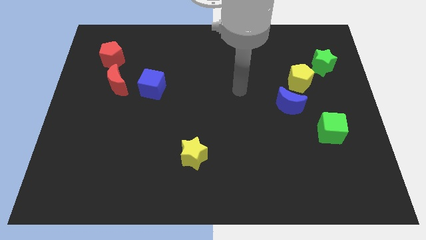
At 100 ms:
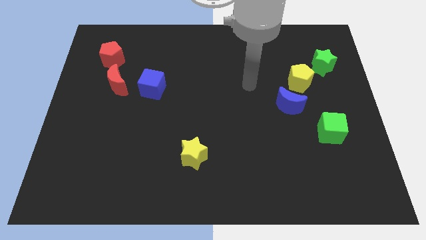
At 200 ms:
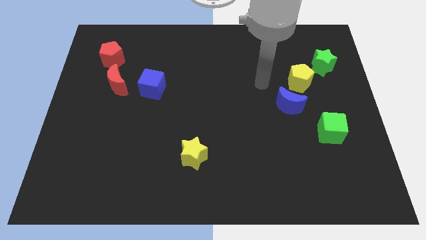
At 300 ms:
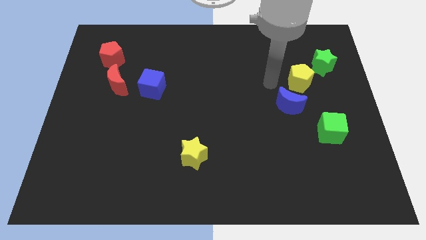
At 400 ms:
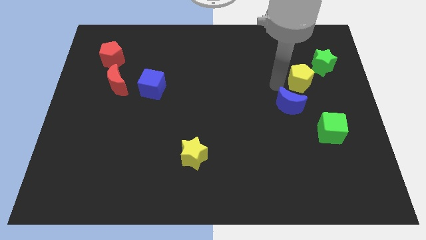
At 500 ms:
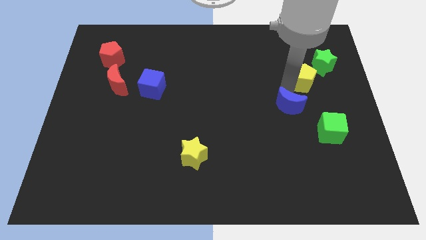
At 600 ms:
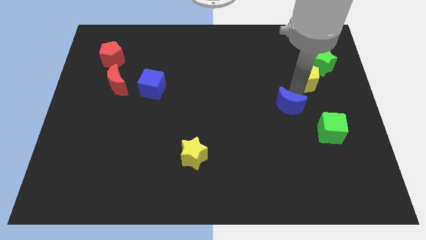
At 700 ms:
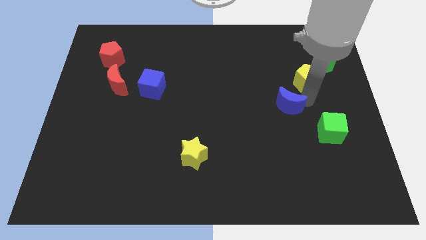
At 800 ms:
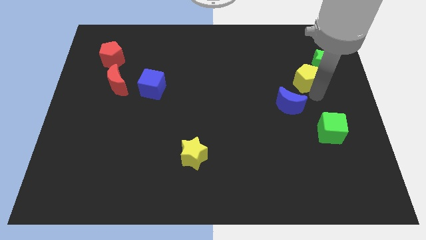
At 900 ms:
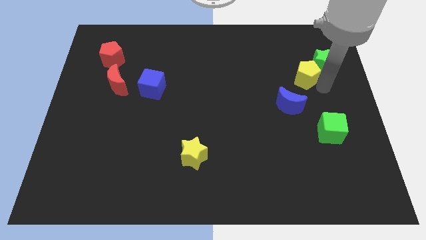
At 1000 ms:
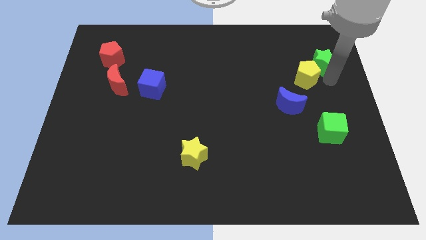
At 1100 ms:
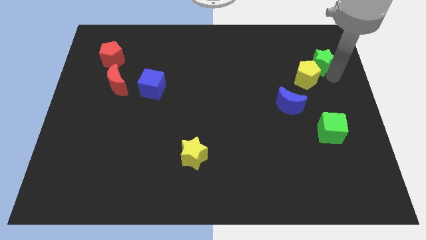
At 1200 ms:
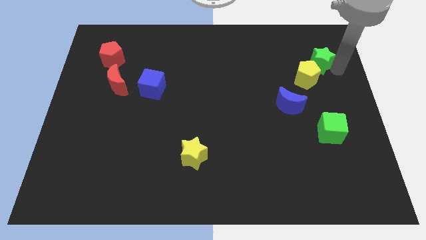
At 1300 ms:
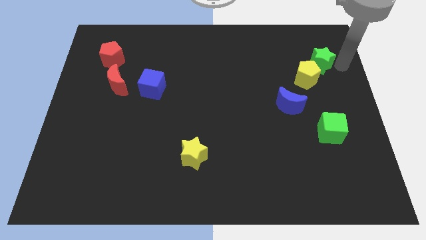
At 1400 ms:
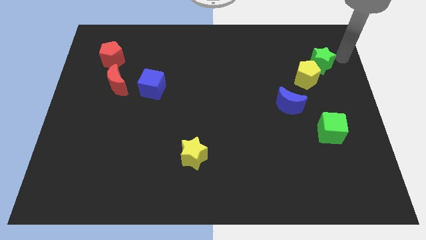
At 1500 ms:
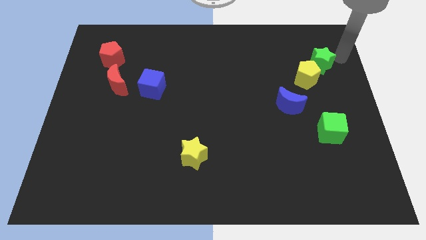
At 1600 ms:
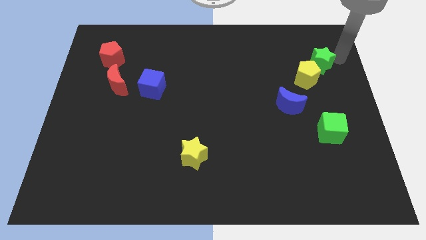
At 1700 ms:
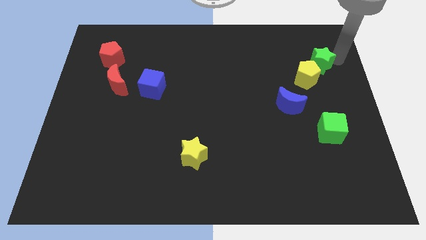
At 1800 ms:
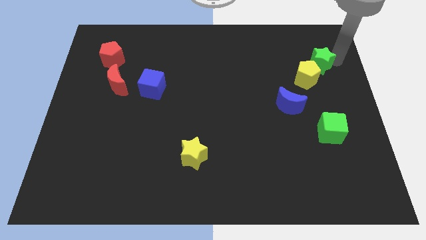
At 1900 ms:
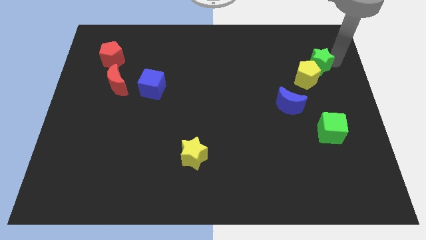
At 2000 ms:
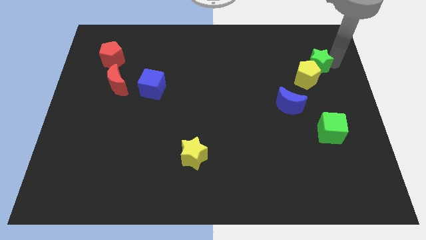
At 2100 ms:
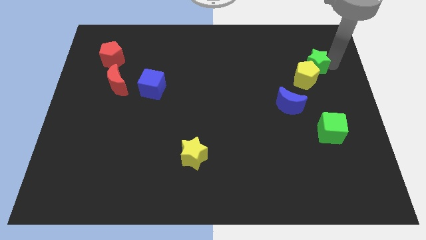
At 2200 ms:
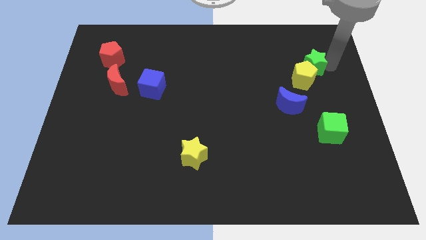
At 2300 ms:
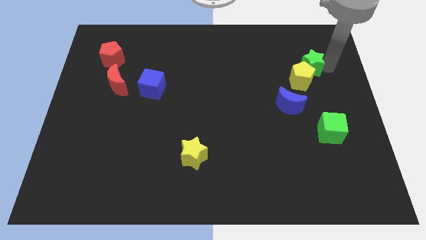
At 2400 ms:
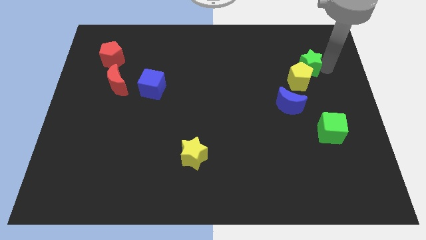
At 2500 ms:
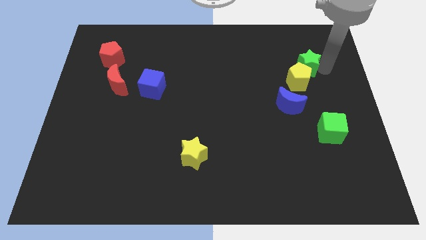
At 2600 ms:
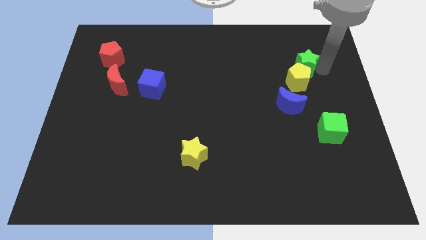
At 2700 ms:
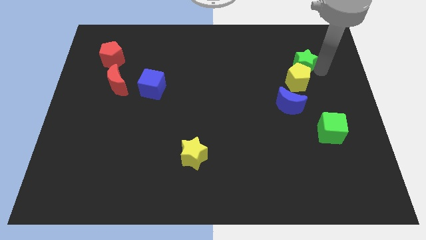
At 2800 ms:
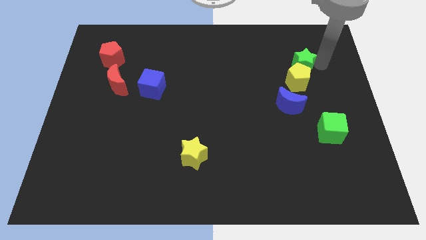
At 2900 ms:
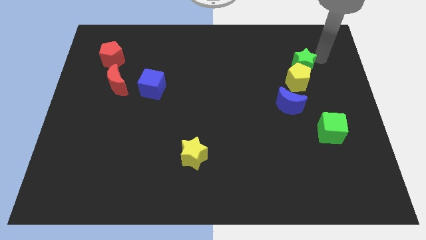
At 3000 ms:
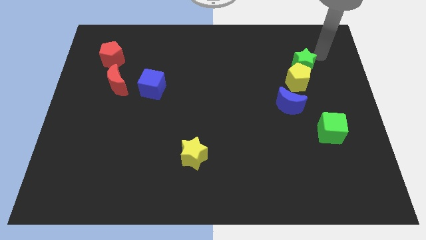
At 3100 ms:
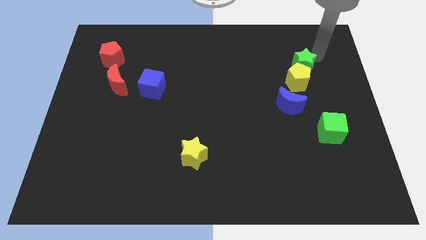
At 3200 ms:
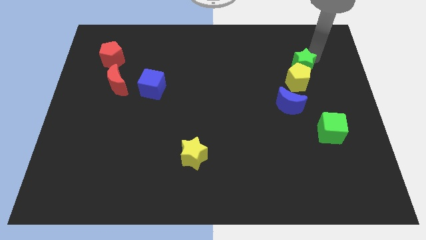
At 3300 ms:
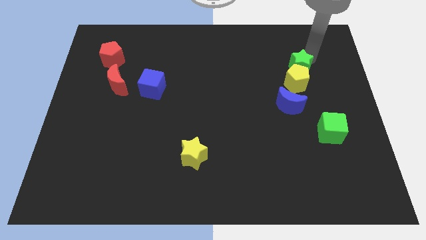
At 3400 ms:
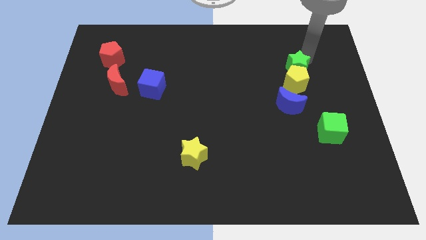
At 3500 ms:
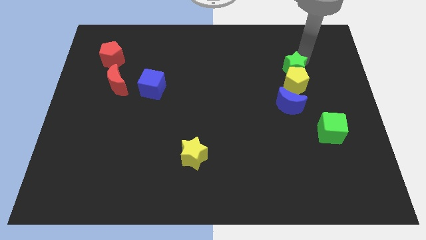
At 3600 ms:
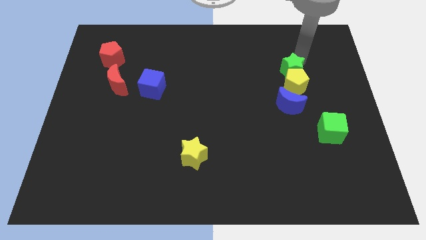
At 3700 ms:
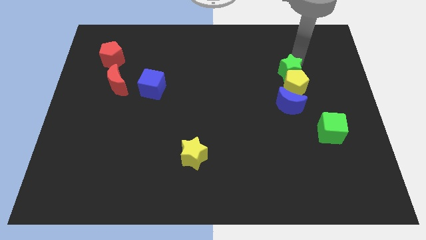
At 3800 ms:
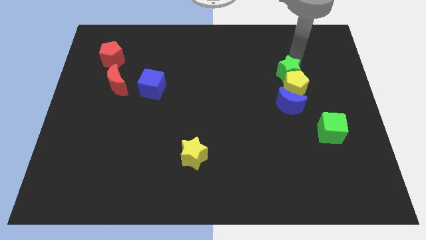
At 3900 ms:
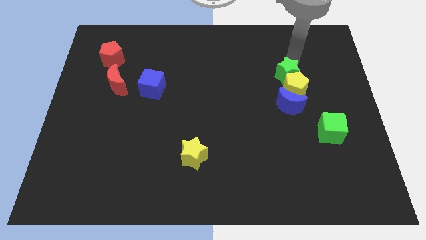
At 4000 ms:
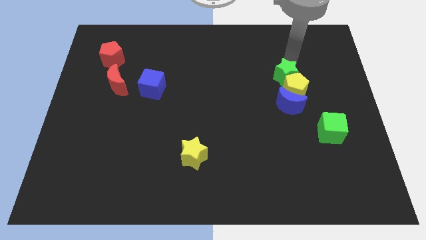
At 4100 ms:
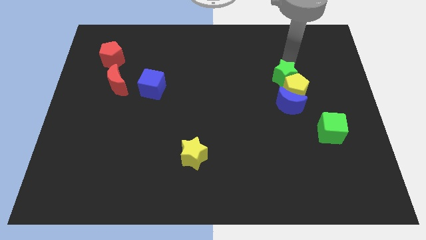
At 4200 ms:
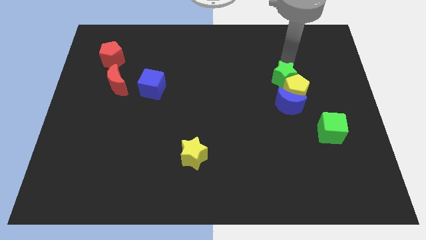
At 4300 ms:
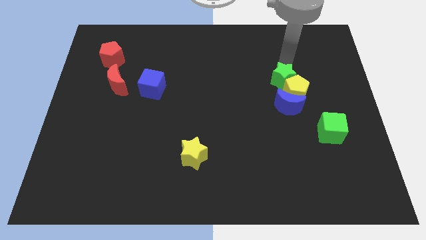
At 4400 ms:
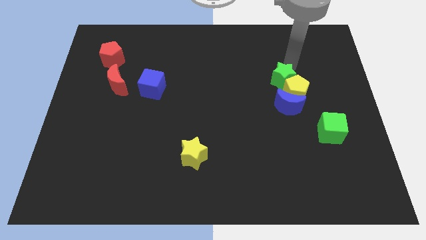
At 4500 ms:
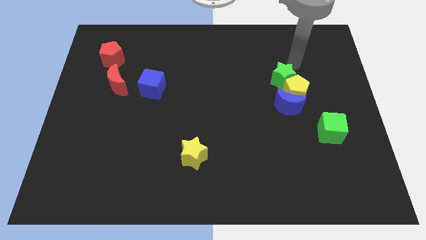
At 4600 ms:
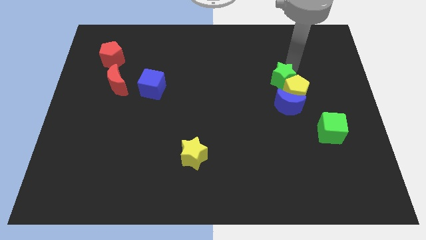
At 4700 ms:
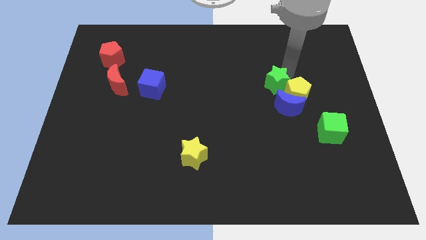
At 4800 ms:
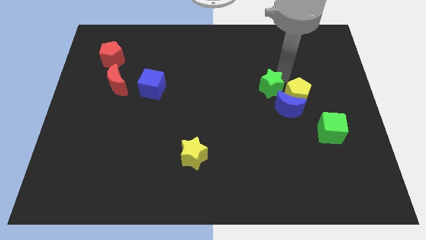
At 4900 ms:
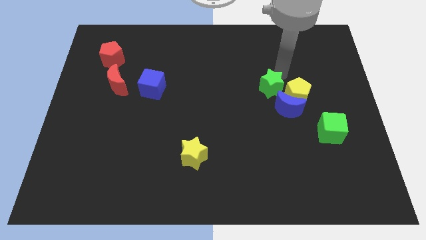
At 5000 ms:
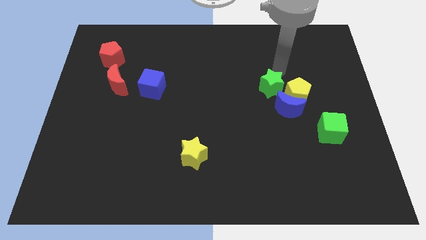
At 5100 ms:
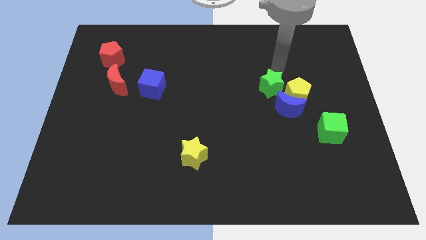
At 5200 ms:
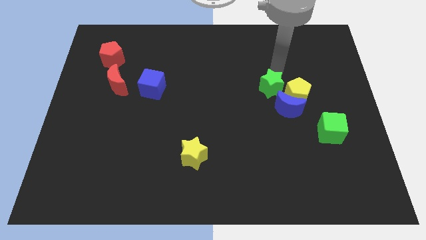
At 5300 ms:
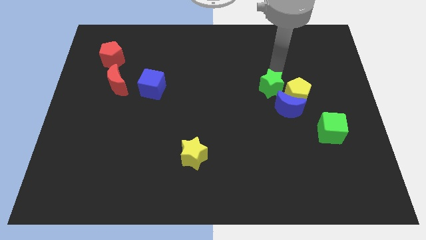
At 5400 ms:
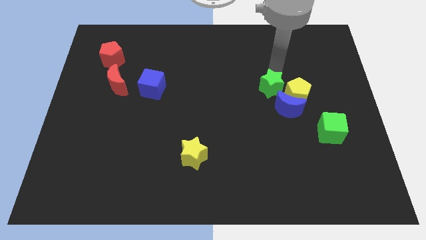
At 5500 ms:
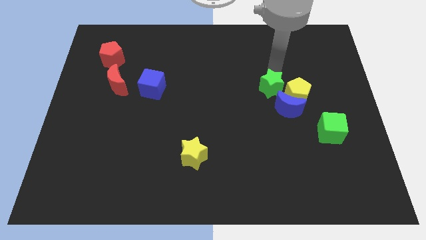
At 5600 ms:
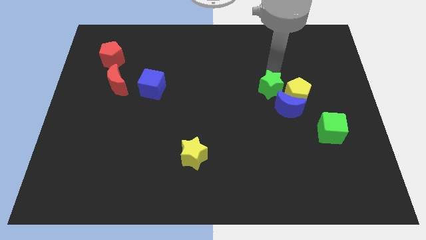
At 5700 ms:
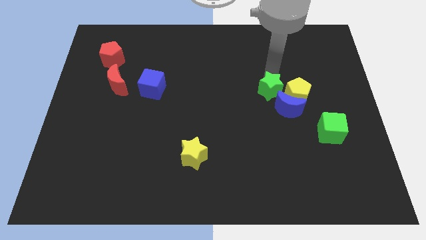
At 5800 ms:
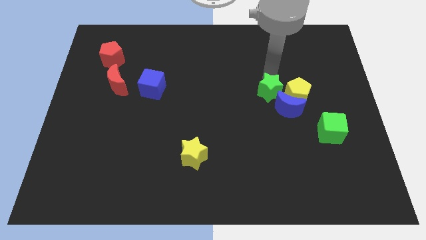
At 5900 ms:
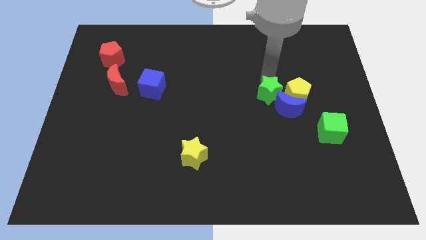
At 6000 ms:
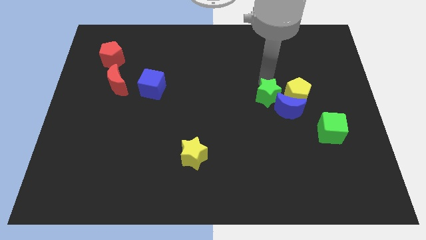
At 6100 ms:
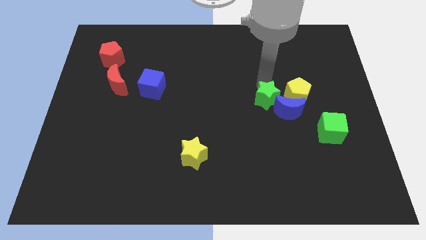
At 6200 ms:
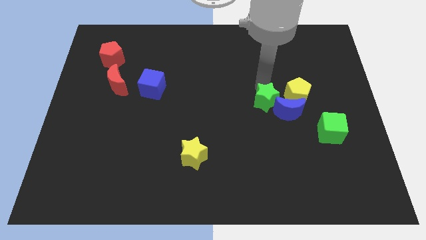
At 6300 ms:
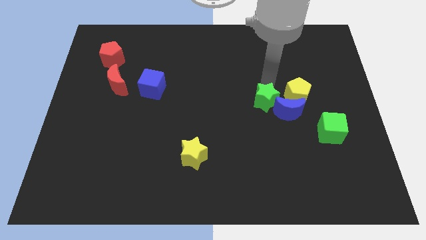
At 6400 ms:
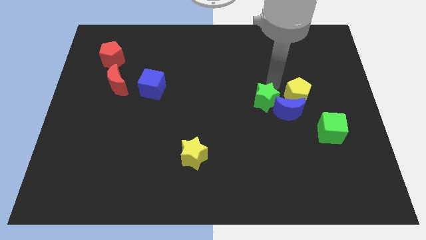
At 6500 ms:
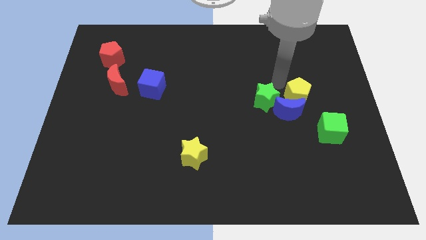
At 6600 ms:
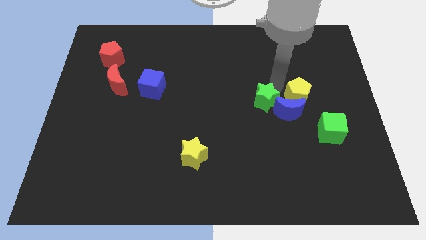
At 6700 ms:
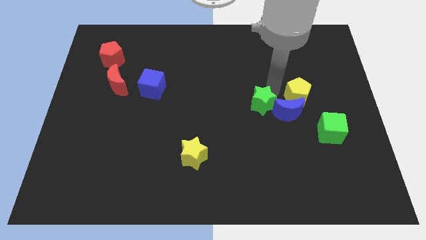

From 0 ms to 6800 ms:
slide the green star downwards and left

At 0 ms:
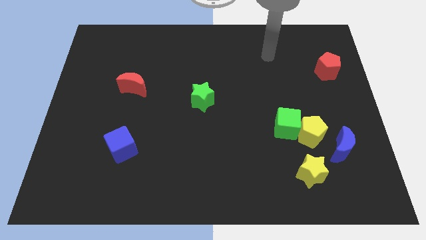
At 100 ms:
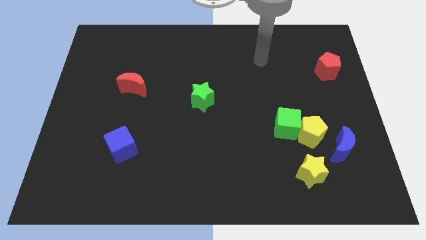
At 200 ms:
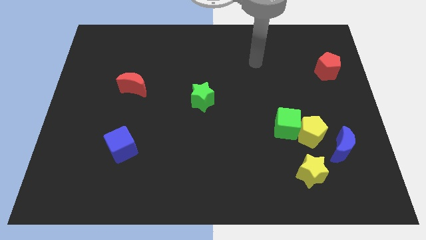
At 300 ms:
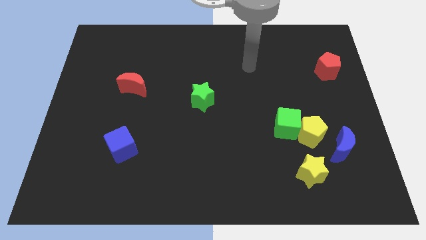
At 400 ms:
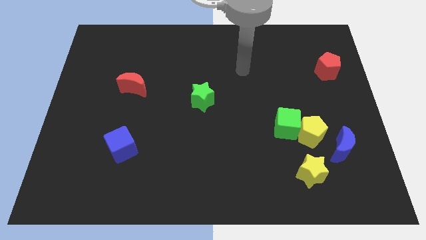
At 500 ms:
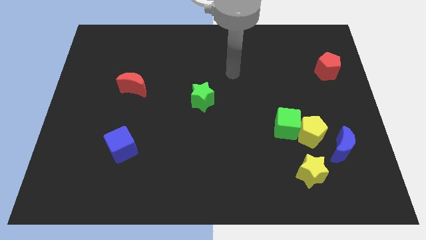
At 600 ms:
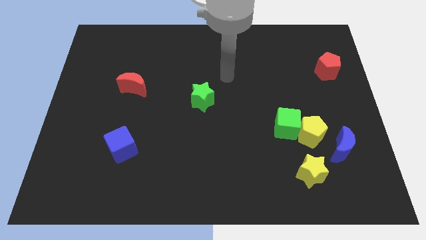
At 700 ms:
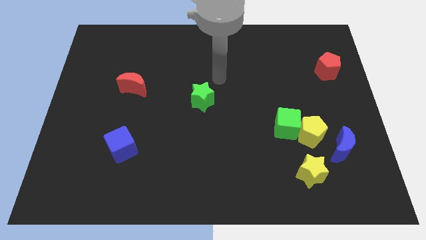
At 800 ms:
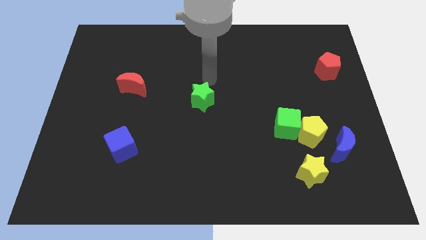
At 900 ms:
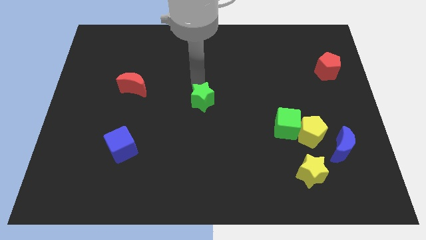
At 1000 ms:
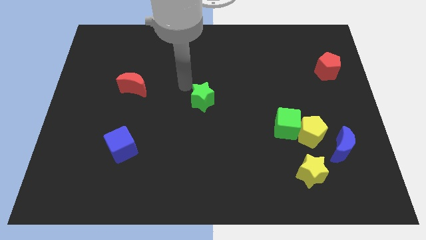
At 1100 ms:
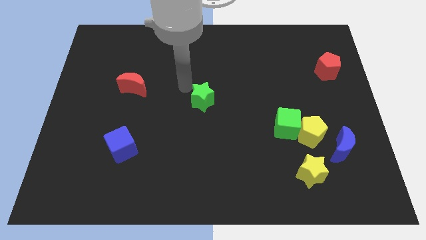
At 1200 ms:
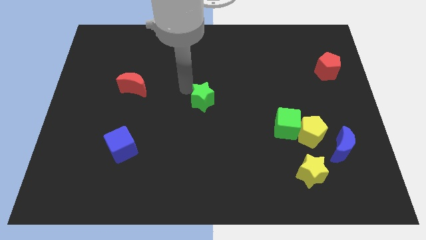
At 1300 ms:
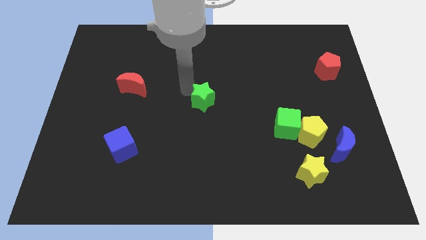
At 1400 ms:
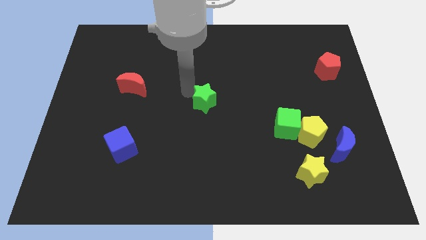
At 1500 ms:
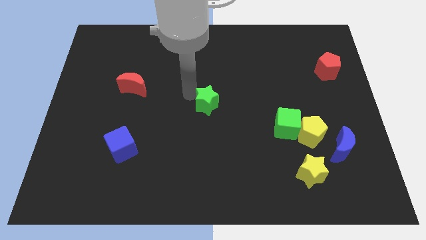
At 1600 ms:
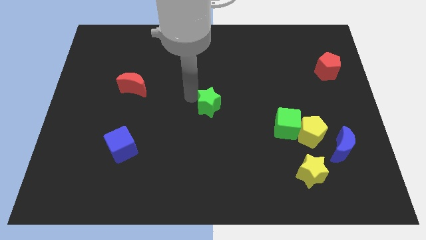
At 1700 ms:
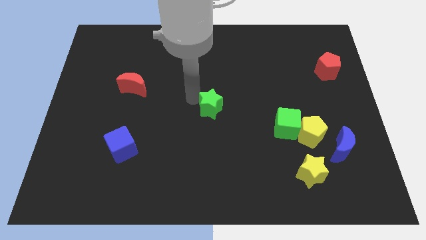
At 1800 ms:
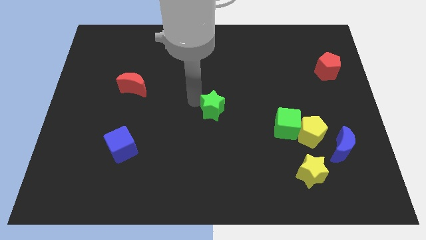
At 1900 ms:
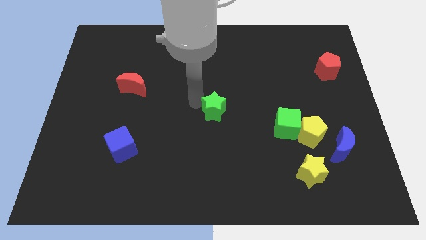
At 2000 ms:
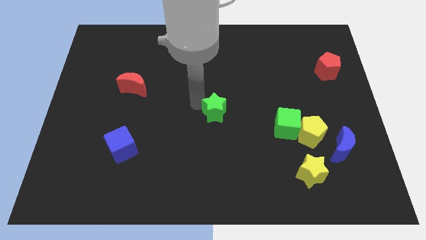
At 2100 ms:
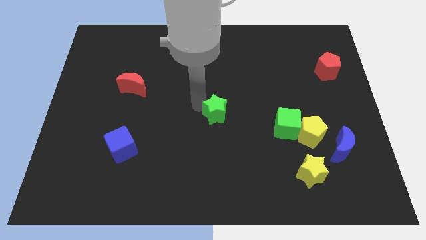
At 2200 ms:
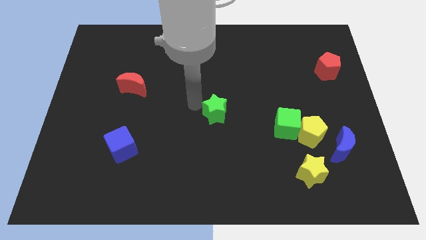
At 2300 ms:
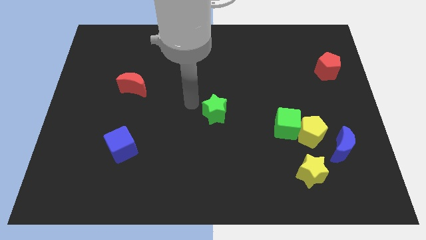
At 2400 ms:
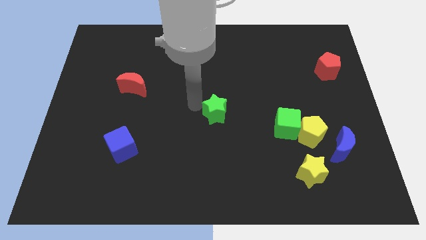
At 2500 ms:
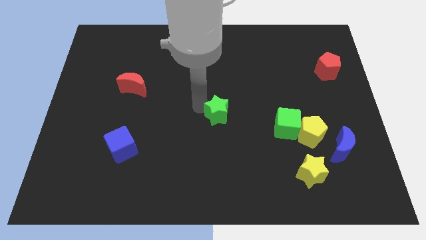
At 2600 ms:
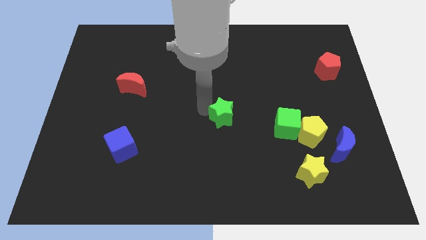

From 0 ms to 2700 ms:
slightly move the green star downwards and then right
